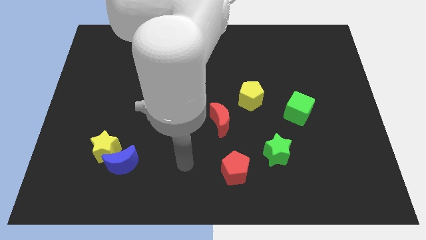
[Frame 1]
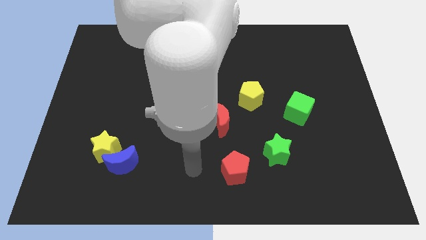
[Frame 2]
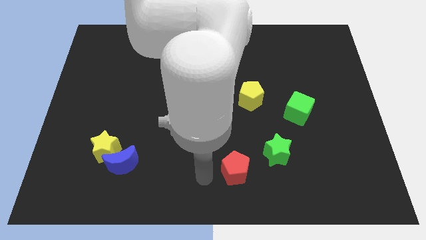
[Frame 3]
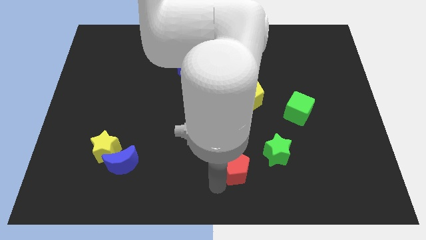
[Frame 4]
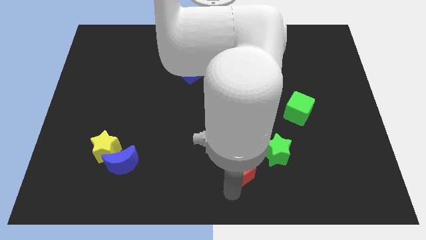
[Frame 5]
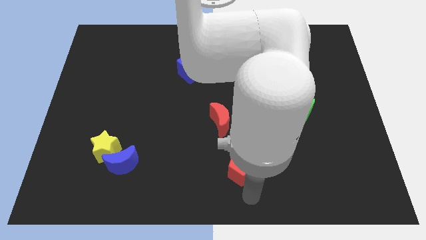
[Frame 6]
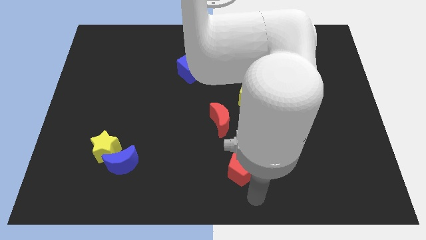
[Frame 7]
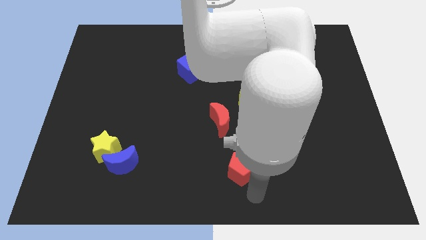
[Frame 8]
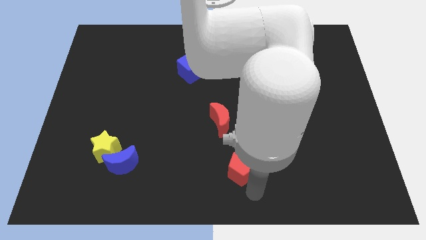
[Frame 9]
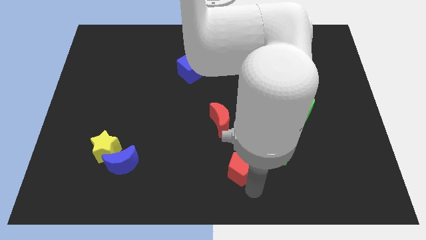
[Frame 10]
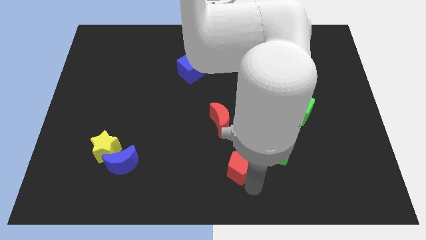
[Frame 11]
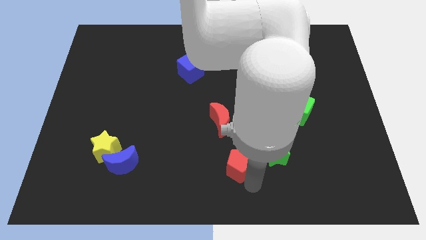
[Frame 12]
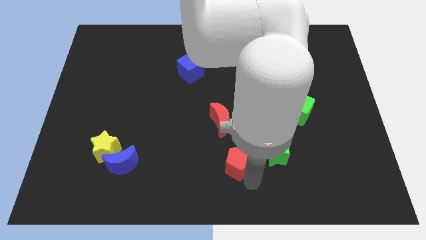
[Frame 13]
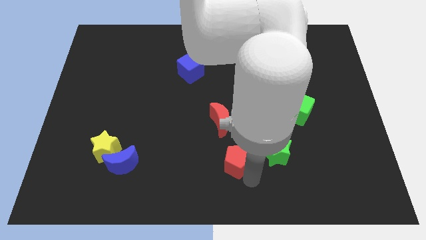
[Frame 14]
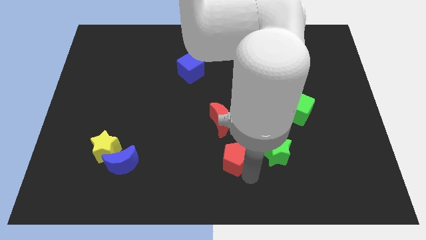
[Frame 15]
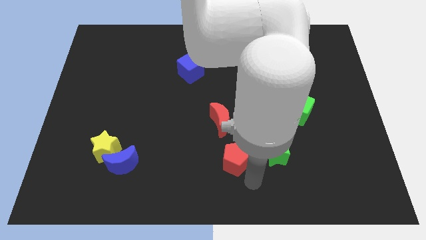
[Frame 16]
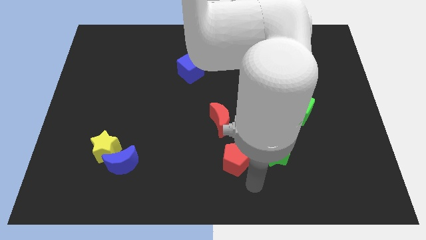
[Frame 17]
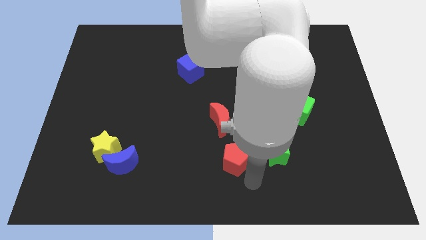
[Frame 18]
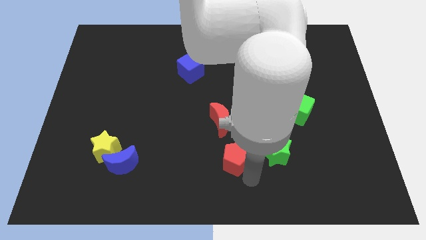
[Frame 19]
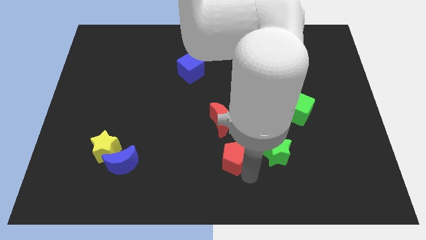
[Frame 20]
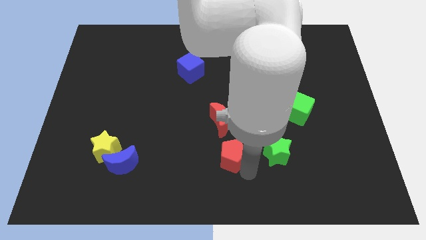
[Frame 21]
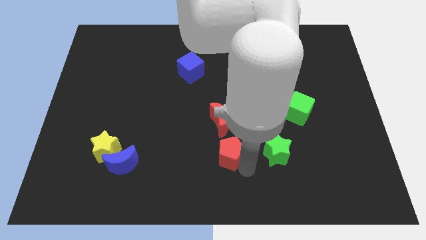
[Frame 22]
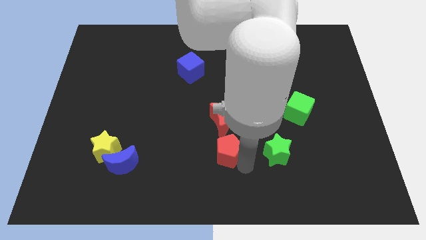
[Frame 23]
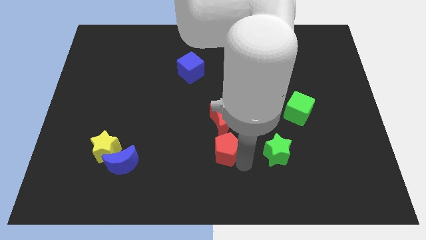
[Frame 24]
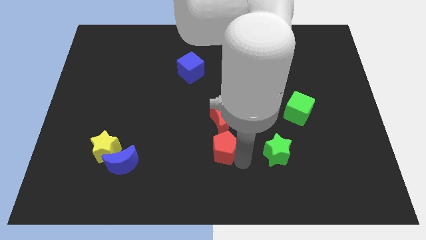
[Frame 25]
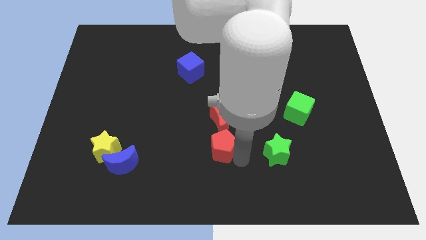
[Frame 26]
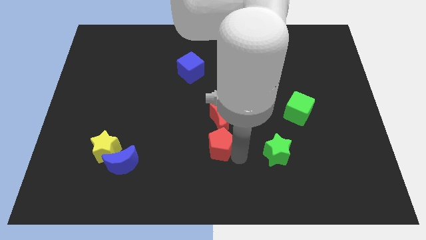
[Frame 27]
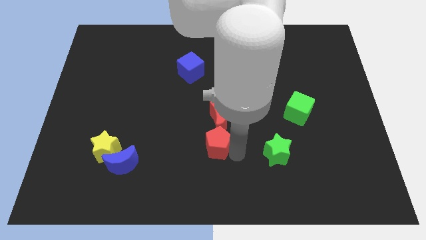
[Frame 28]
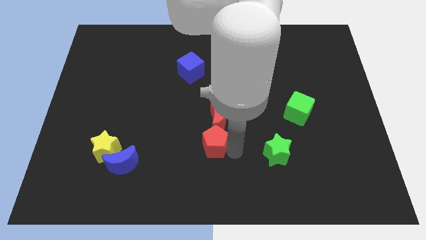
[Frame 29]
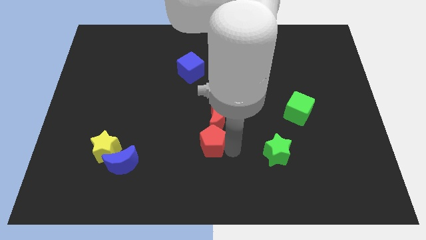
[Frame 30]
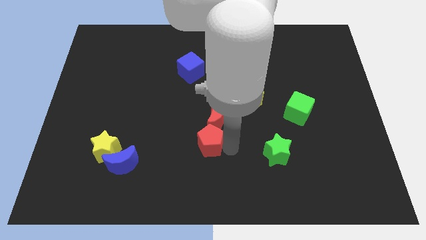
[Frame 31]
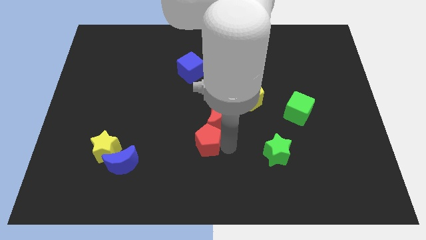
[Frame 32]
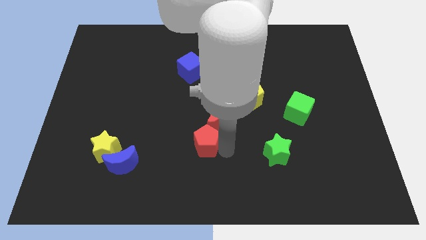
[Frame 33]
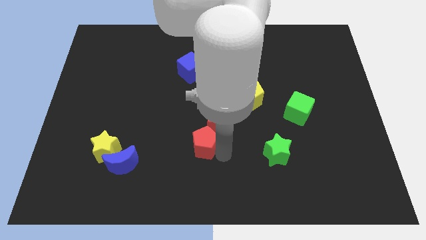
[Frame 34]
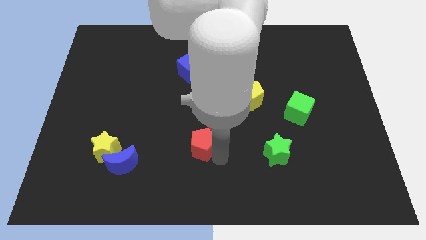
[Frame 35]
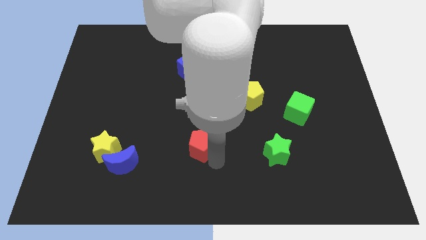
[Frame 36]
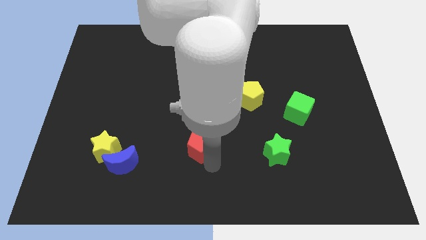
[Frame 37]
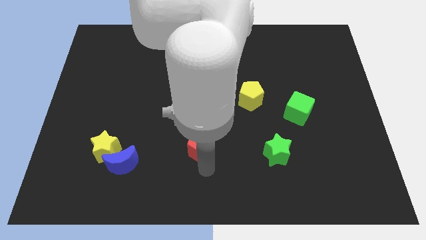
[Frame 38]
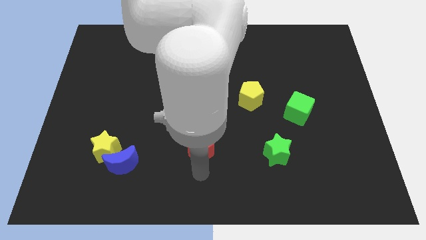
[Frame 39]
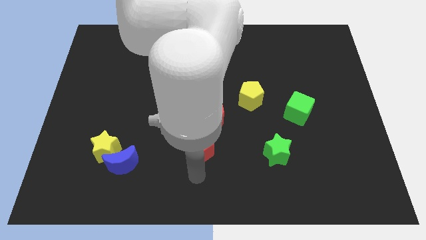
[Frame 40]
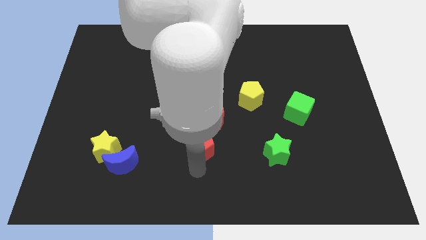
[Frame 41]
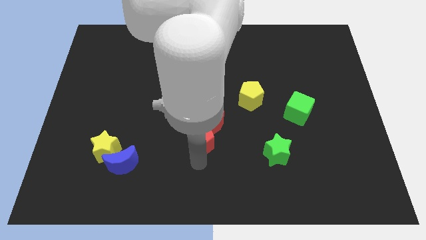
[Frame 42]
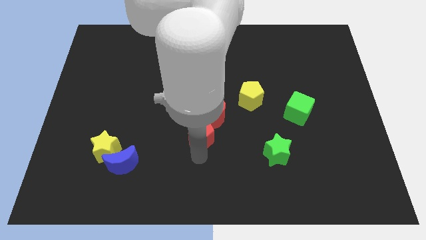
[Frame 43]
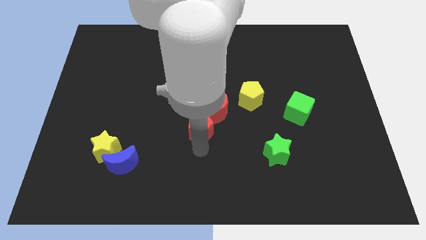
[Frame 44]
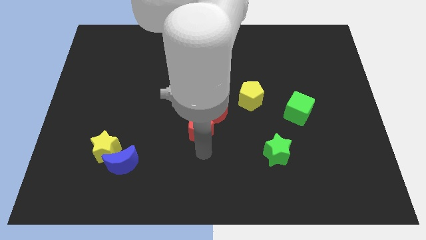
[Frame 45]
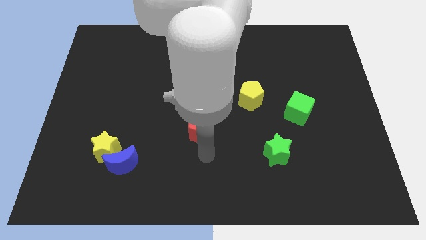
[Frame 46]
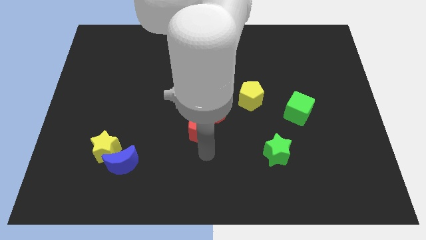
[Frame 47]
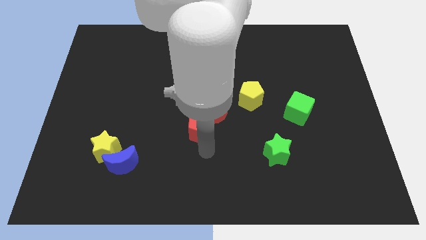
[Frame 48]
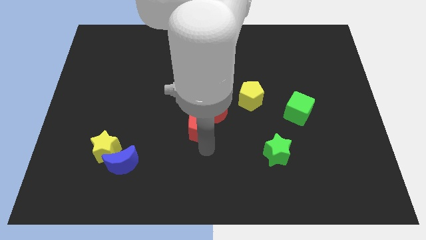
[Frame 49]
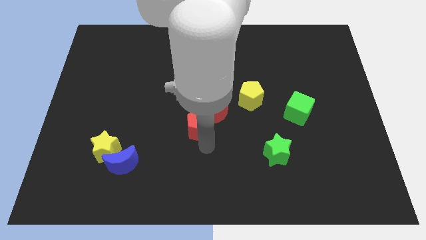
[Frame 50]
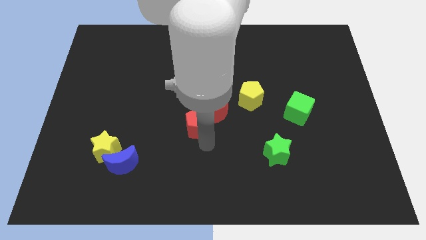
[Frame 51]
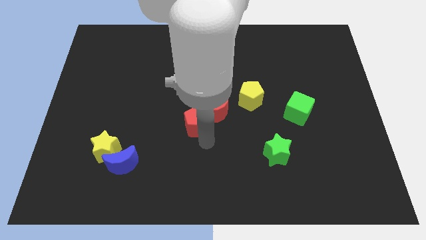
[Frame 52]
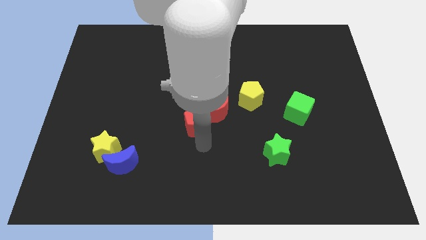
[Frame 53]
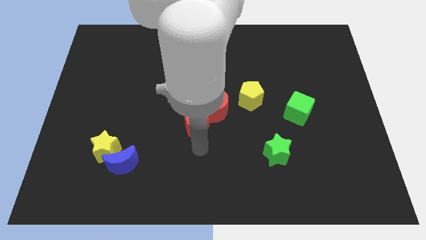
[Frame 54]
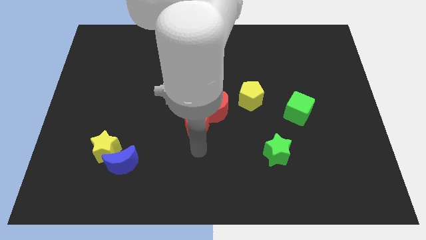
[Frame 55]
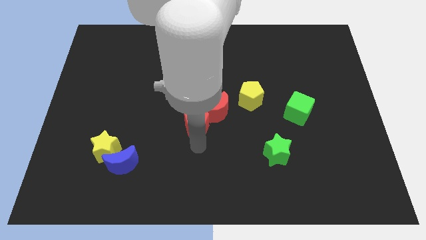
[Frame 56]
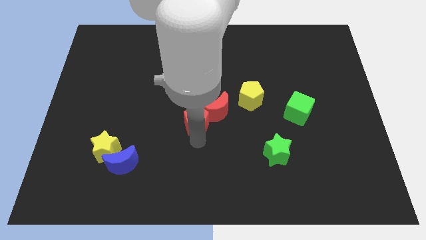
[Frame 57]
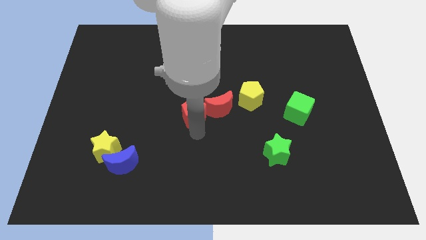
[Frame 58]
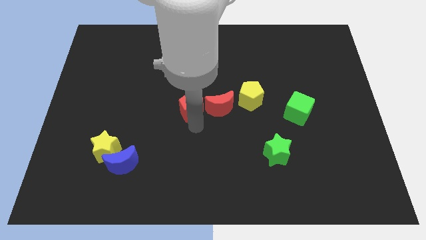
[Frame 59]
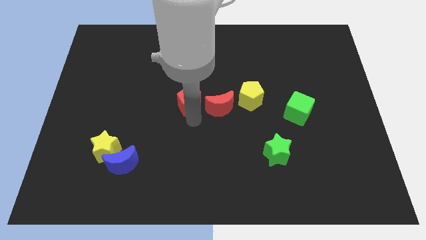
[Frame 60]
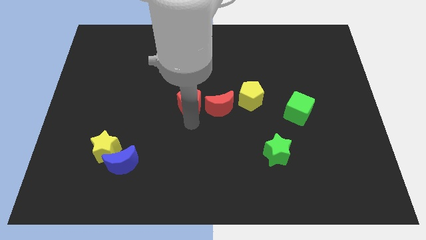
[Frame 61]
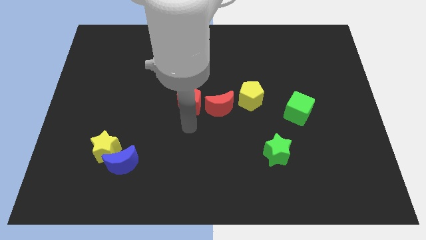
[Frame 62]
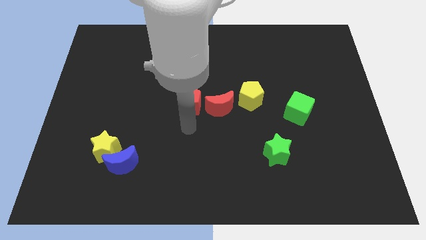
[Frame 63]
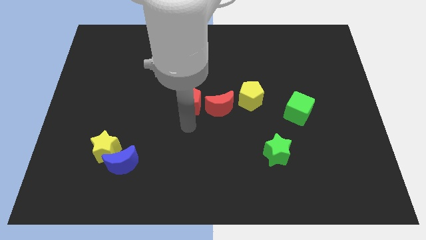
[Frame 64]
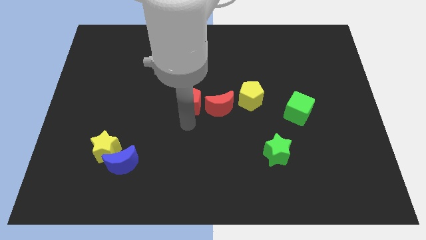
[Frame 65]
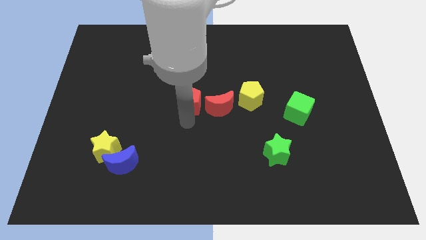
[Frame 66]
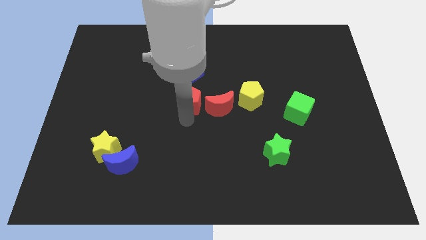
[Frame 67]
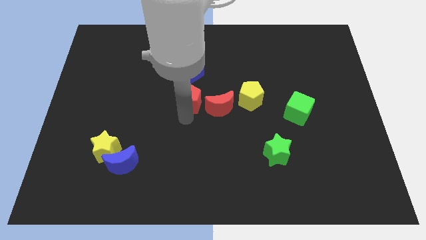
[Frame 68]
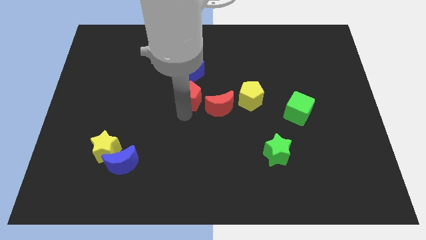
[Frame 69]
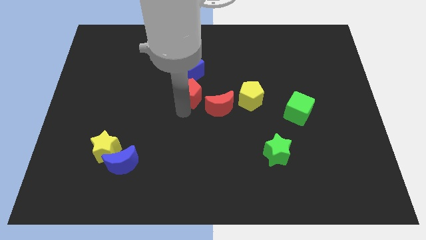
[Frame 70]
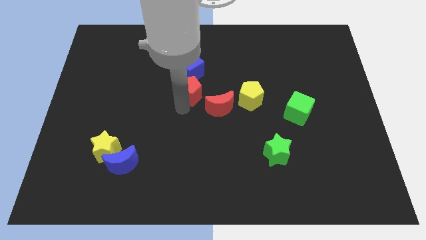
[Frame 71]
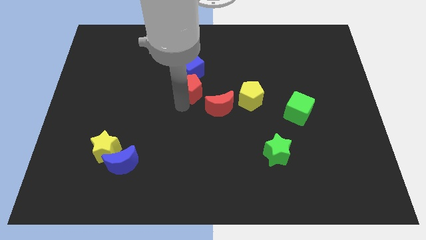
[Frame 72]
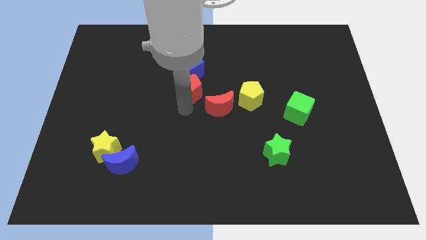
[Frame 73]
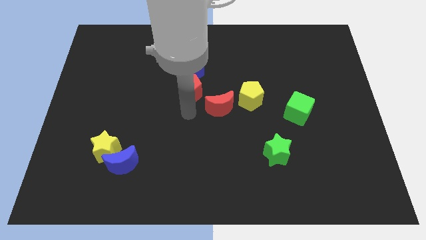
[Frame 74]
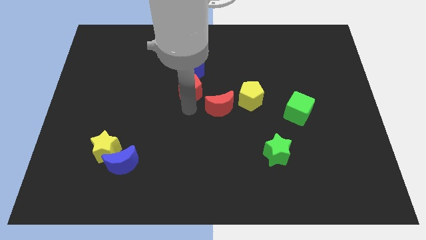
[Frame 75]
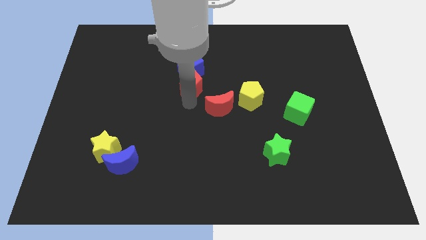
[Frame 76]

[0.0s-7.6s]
push the red pentagon towards the blue cube
